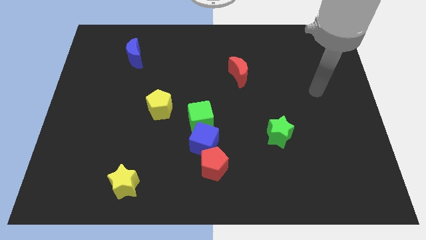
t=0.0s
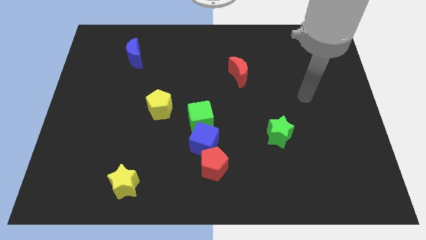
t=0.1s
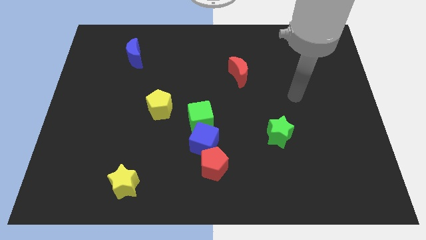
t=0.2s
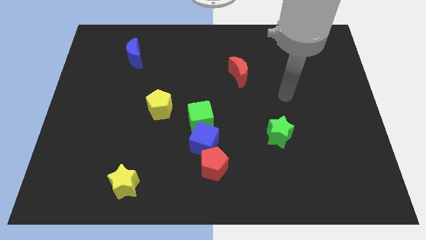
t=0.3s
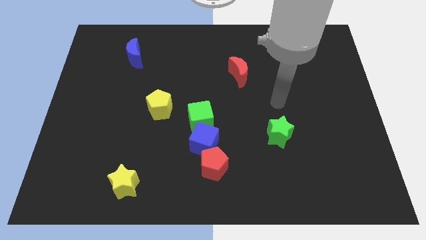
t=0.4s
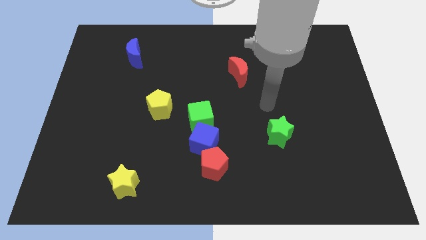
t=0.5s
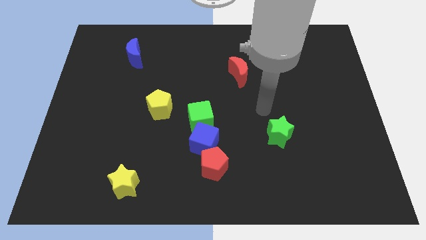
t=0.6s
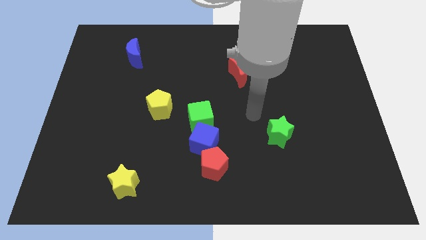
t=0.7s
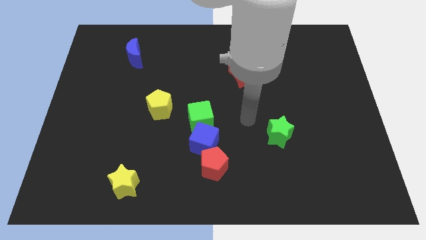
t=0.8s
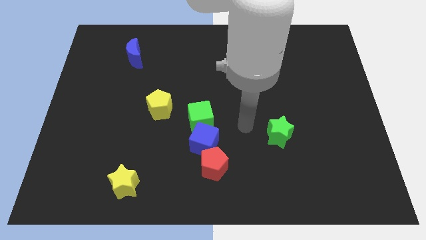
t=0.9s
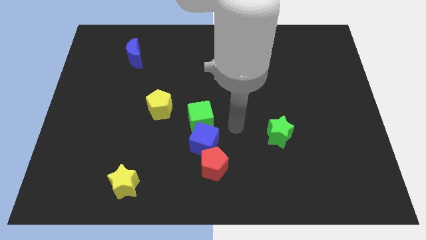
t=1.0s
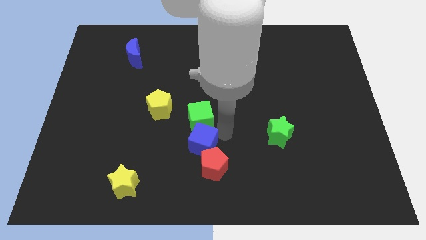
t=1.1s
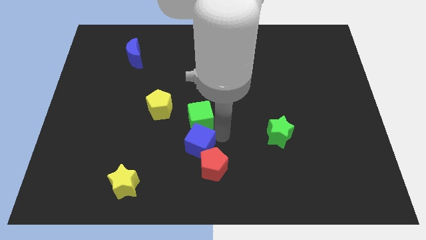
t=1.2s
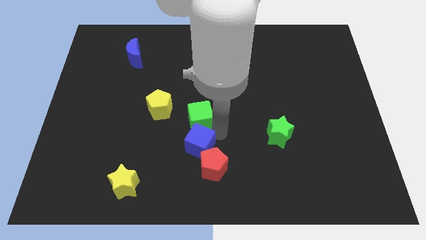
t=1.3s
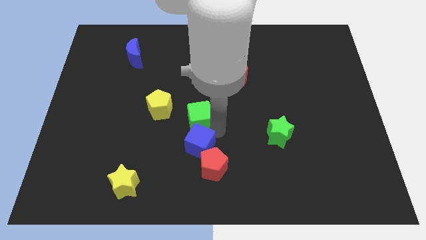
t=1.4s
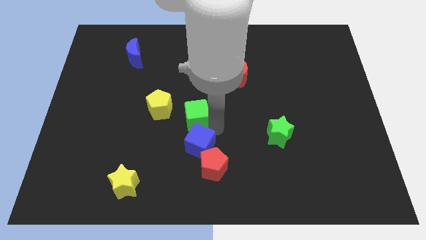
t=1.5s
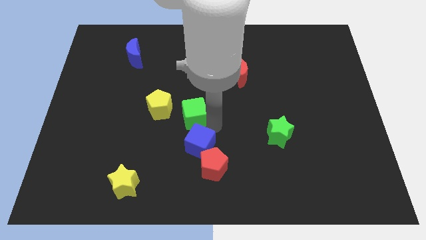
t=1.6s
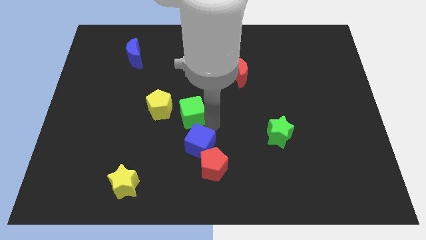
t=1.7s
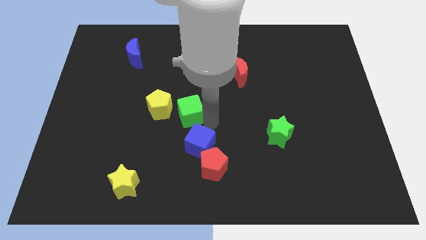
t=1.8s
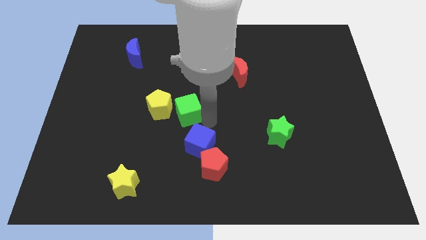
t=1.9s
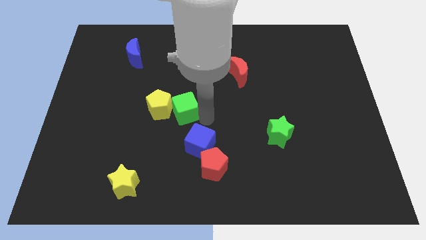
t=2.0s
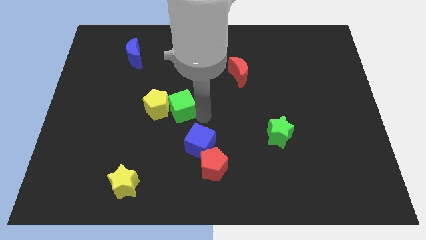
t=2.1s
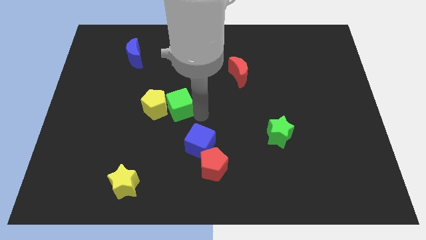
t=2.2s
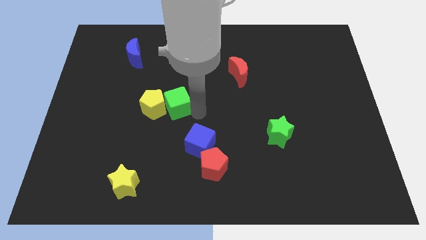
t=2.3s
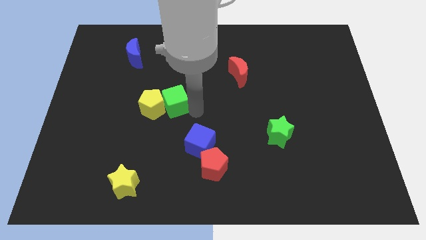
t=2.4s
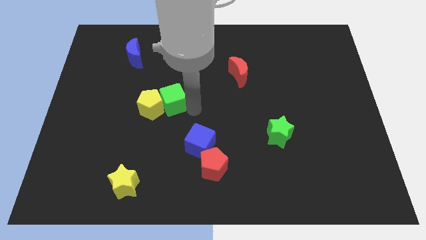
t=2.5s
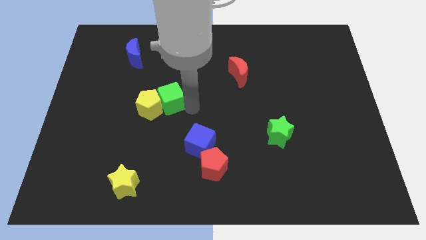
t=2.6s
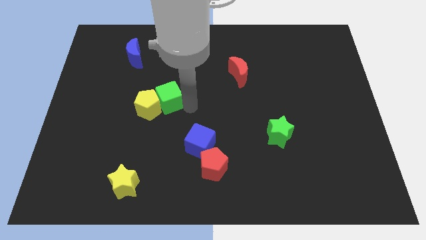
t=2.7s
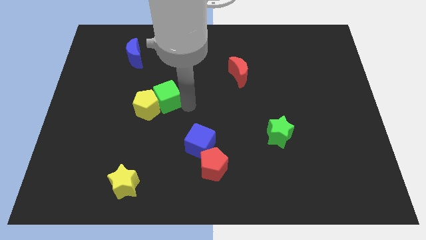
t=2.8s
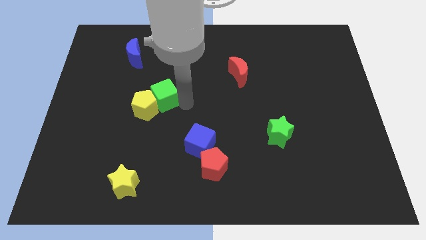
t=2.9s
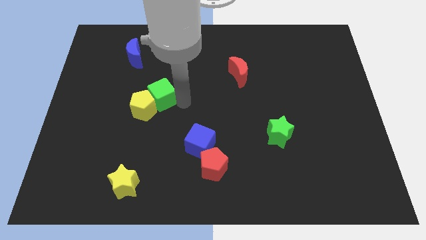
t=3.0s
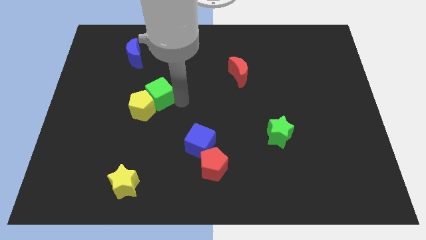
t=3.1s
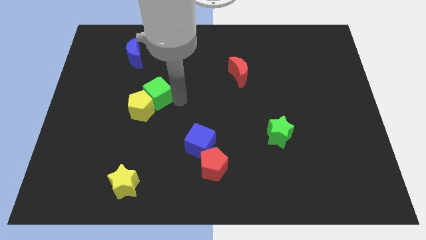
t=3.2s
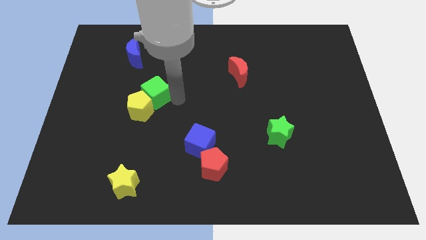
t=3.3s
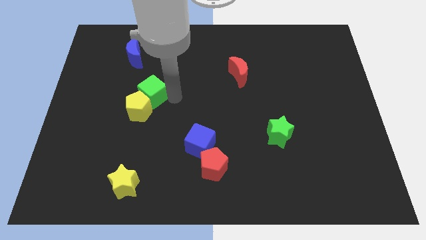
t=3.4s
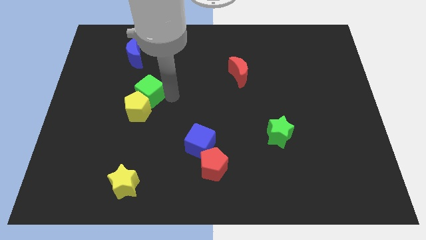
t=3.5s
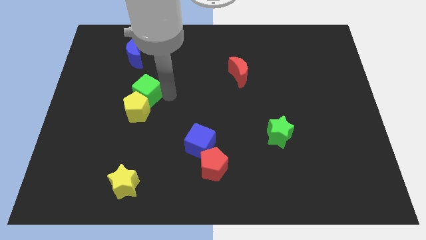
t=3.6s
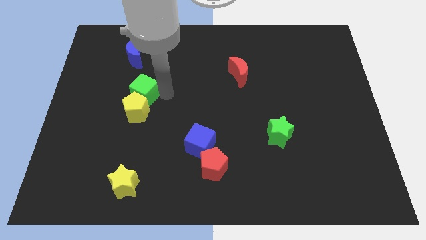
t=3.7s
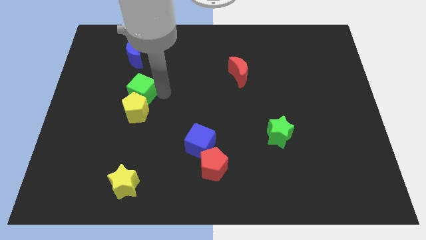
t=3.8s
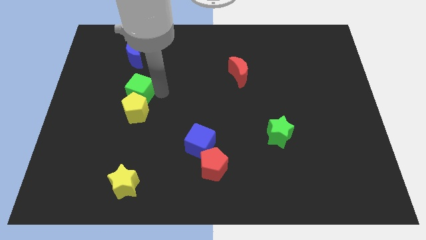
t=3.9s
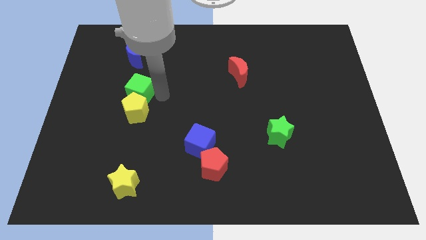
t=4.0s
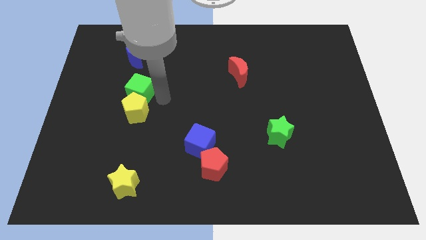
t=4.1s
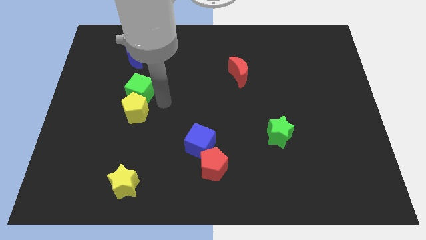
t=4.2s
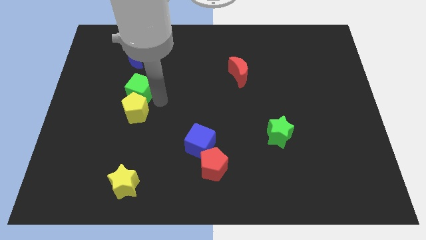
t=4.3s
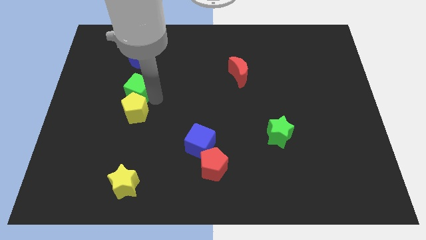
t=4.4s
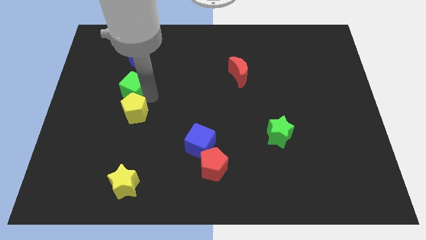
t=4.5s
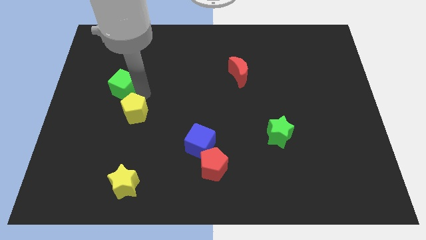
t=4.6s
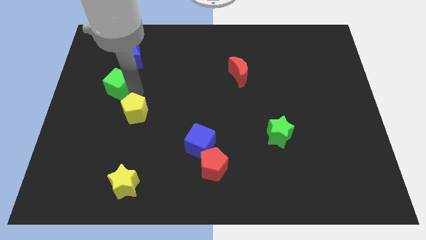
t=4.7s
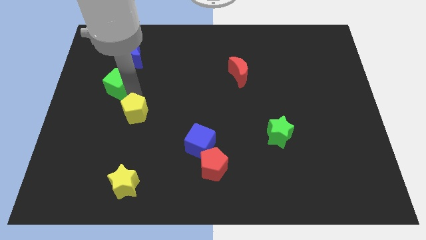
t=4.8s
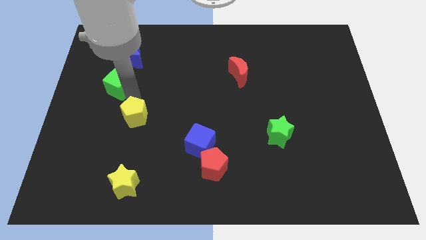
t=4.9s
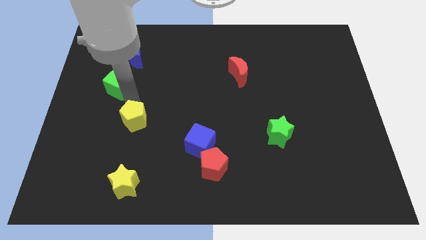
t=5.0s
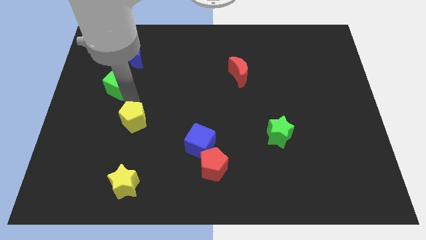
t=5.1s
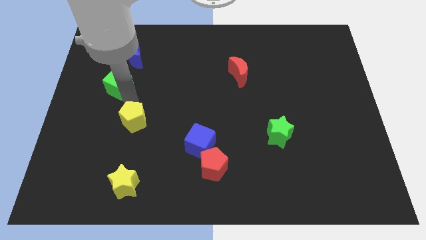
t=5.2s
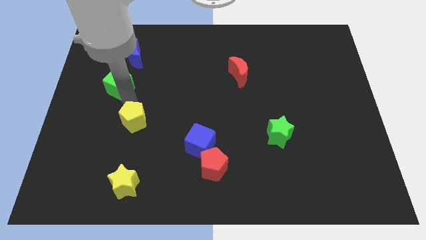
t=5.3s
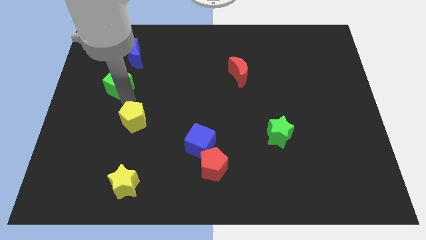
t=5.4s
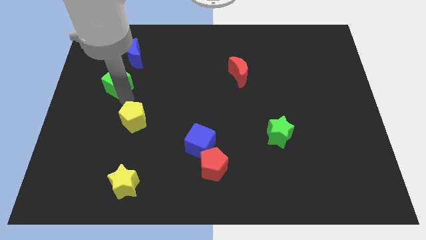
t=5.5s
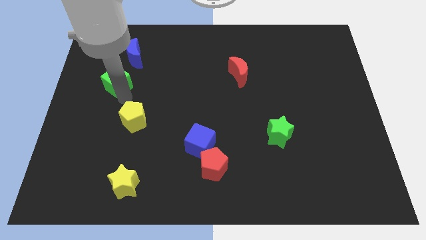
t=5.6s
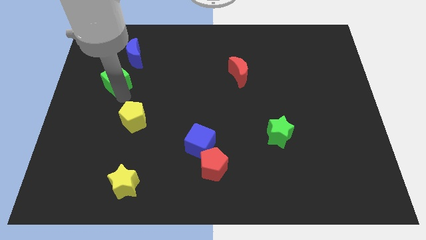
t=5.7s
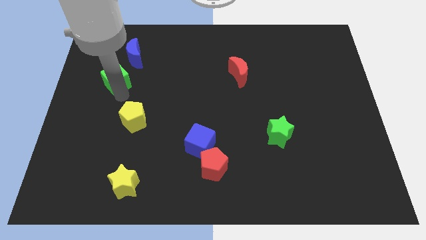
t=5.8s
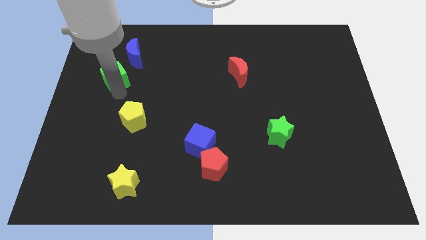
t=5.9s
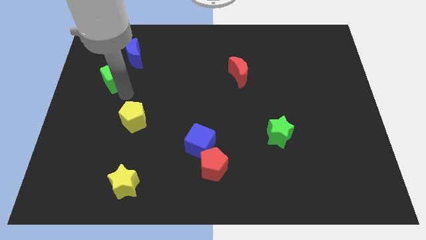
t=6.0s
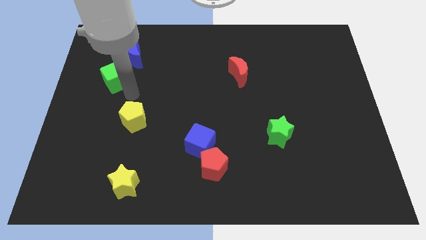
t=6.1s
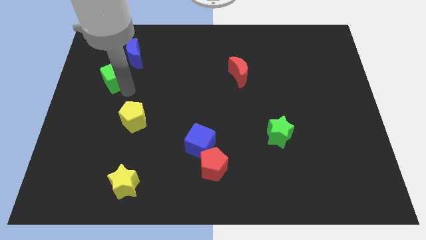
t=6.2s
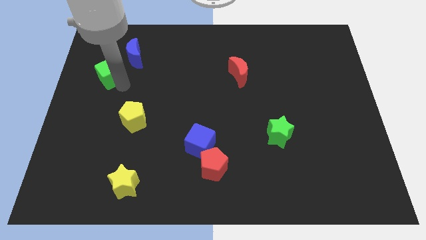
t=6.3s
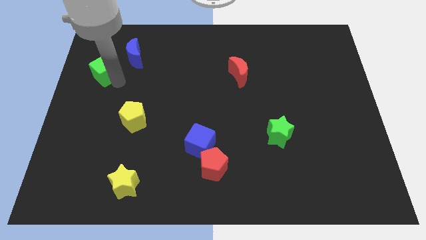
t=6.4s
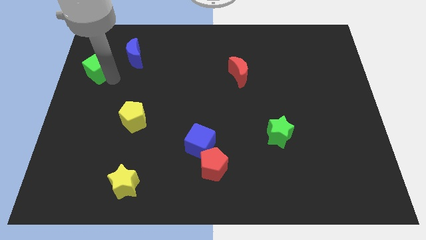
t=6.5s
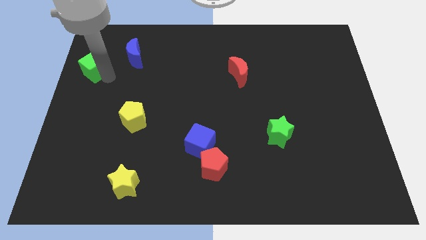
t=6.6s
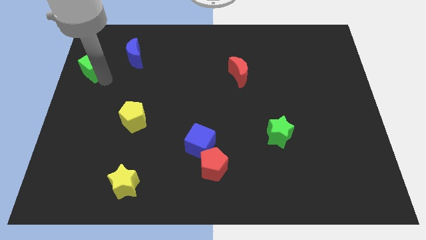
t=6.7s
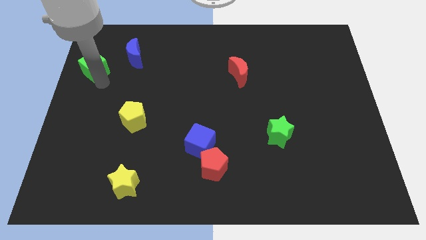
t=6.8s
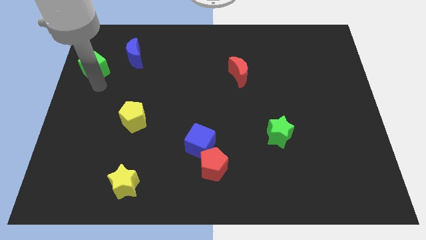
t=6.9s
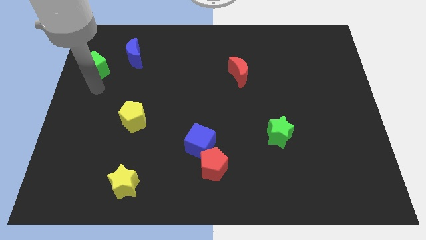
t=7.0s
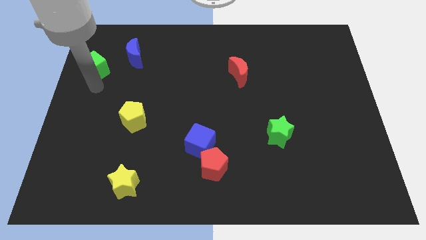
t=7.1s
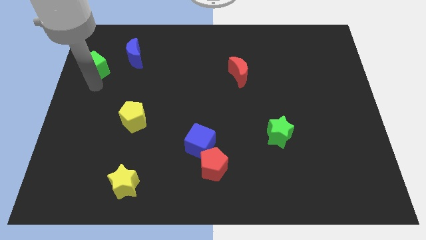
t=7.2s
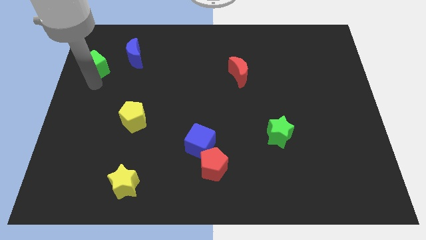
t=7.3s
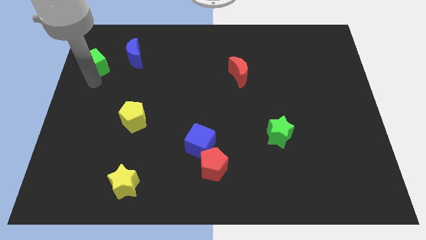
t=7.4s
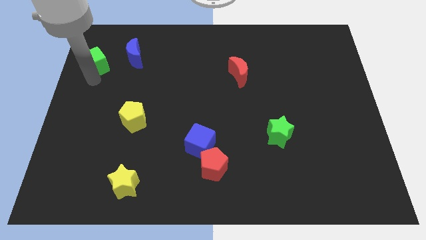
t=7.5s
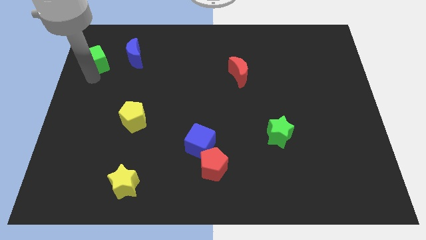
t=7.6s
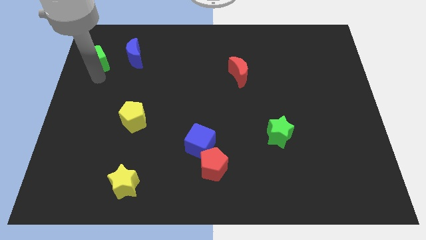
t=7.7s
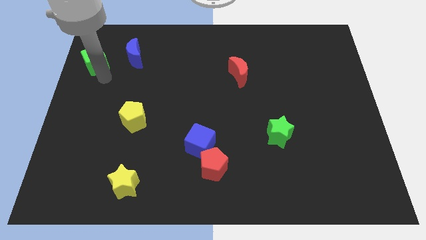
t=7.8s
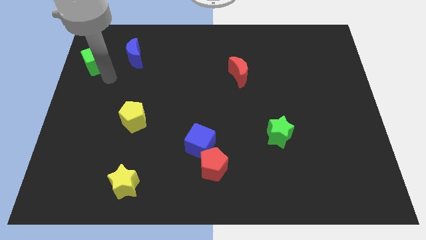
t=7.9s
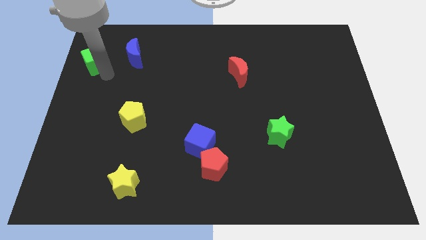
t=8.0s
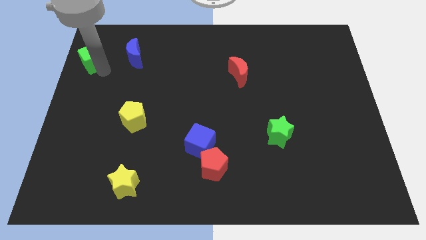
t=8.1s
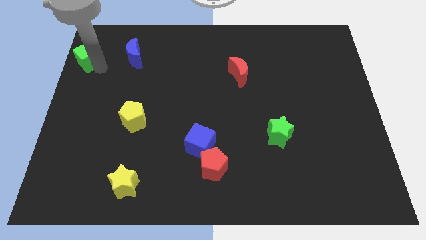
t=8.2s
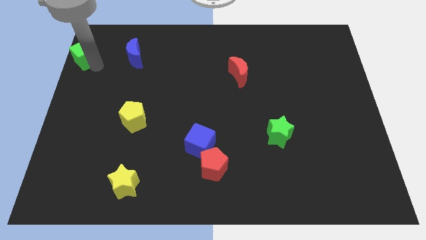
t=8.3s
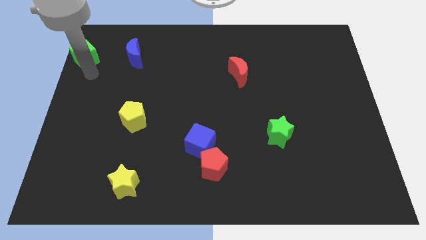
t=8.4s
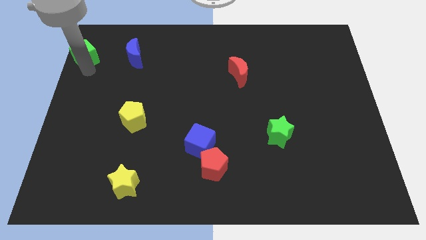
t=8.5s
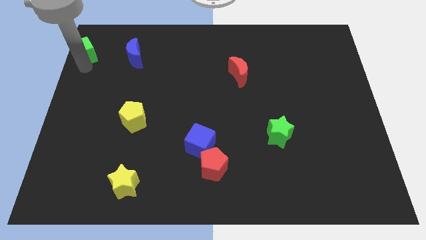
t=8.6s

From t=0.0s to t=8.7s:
move the green cube to the upper left corner
